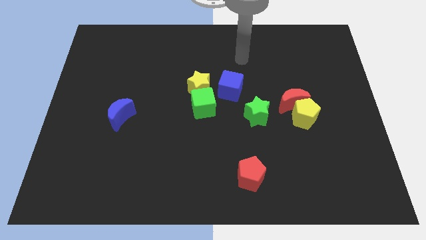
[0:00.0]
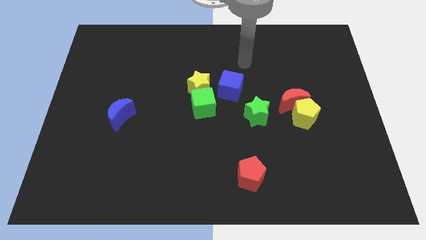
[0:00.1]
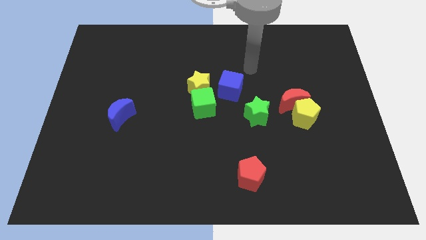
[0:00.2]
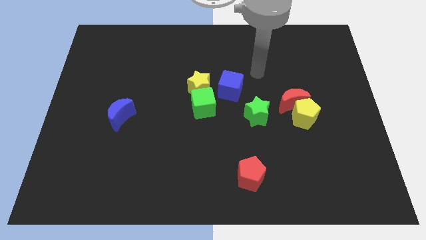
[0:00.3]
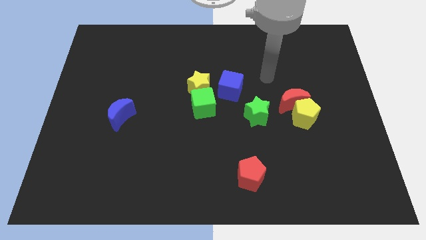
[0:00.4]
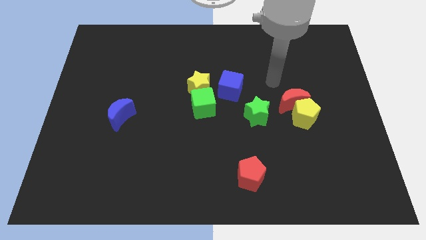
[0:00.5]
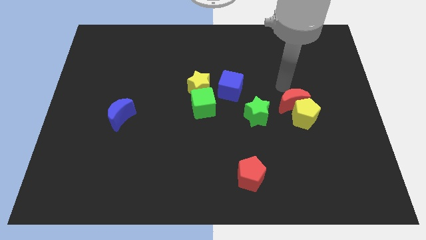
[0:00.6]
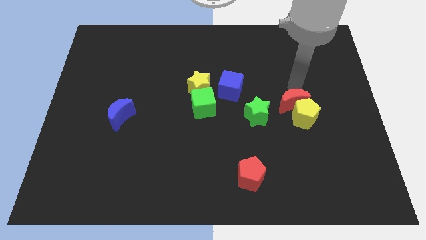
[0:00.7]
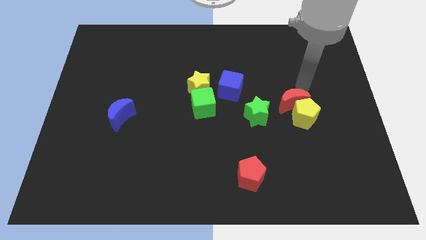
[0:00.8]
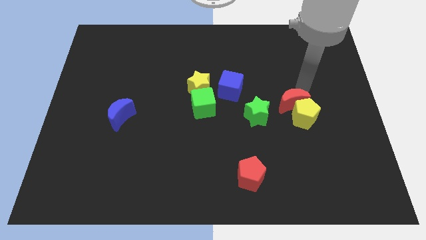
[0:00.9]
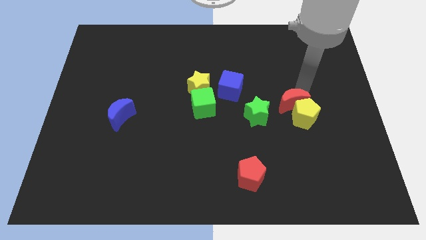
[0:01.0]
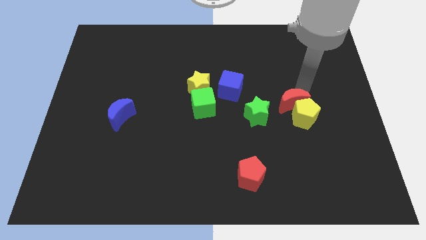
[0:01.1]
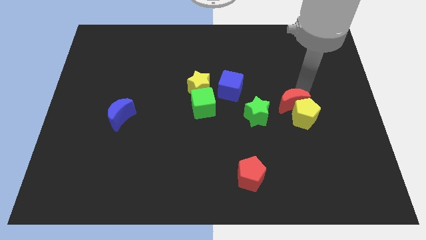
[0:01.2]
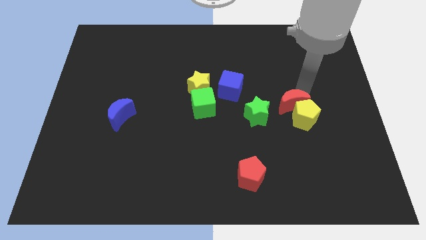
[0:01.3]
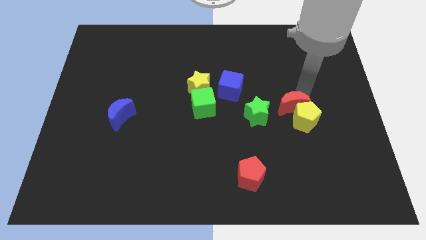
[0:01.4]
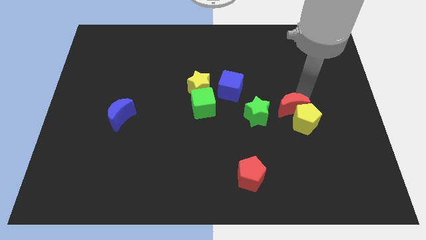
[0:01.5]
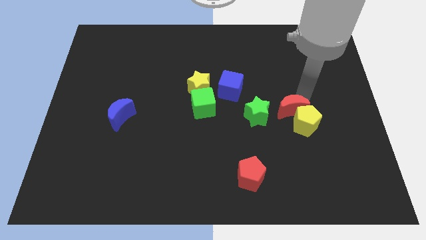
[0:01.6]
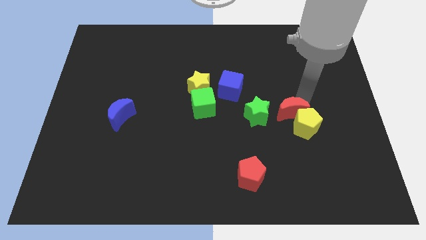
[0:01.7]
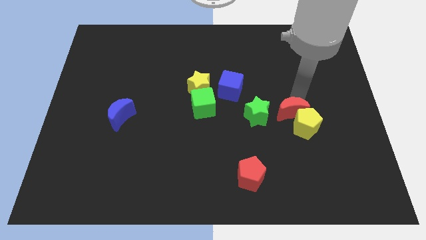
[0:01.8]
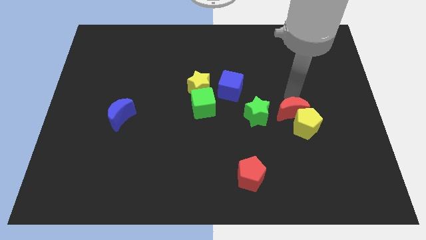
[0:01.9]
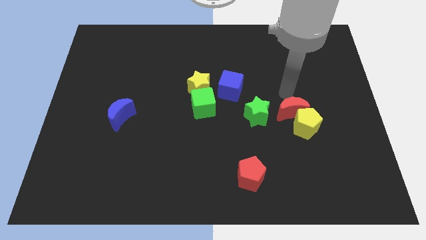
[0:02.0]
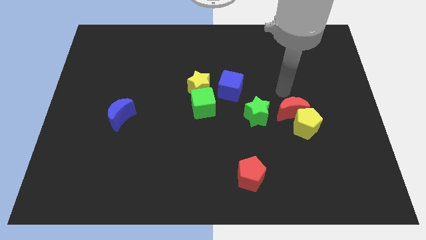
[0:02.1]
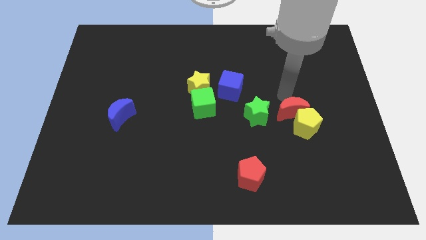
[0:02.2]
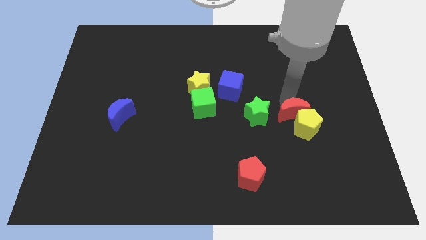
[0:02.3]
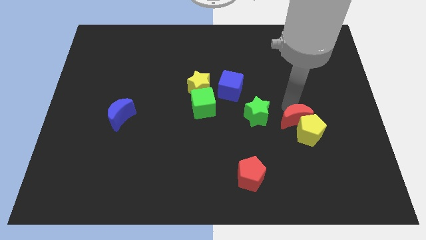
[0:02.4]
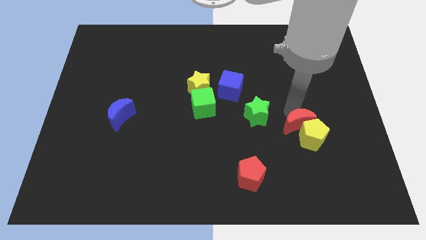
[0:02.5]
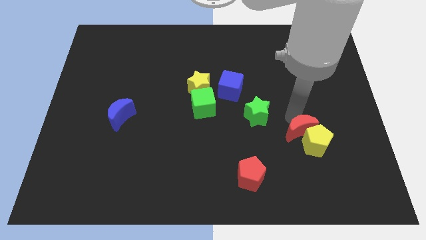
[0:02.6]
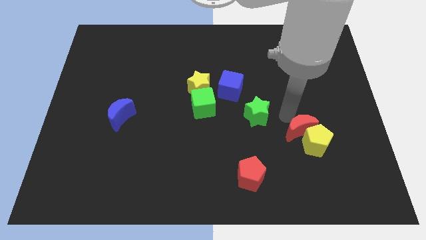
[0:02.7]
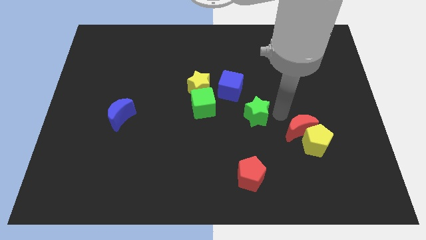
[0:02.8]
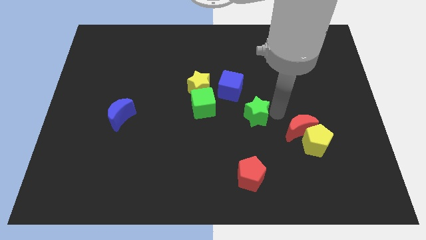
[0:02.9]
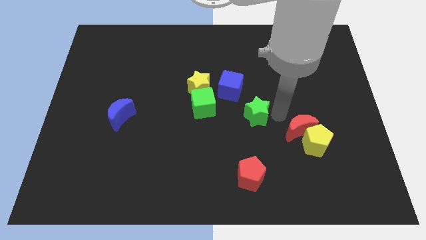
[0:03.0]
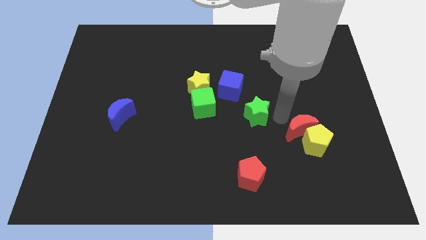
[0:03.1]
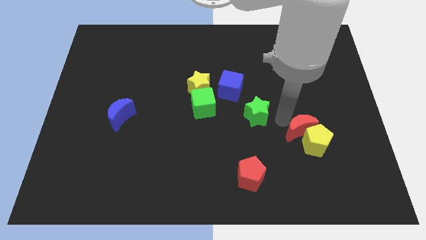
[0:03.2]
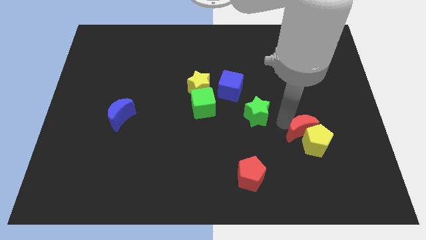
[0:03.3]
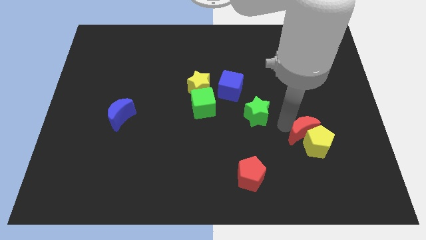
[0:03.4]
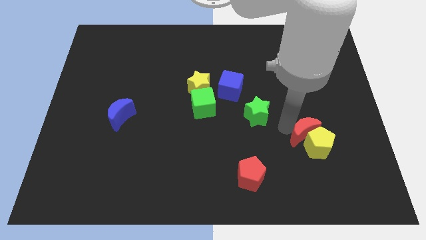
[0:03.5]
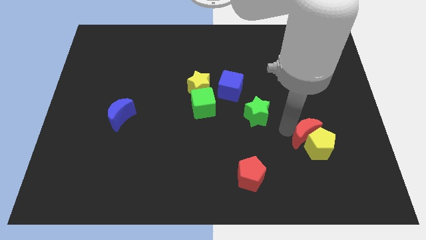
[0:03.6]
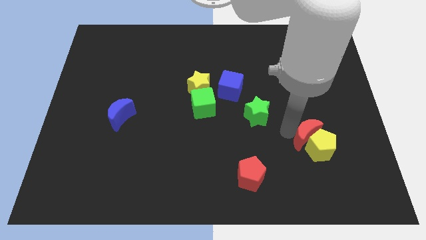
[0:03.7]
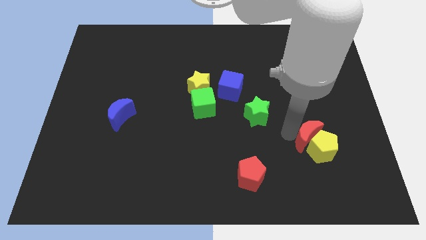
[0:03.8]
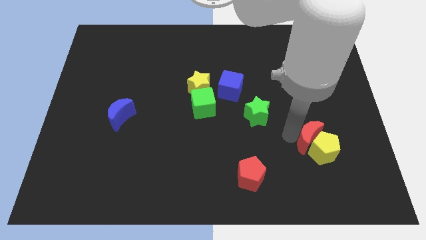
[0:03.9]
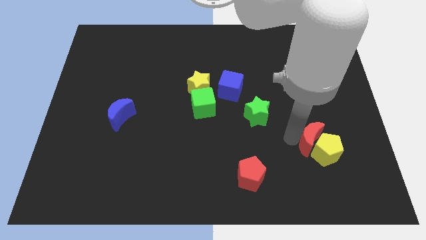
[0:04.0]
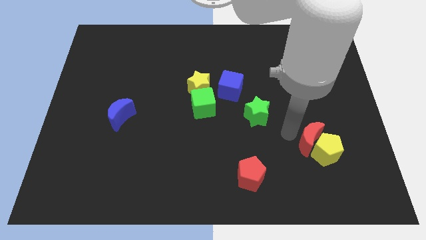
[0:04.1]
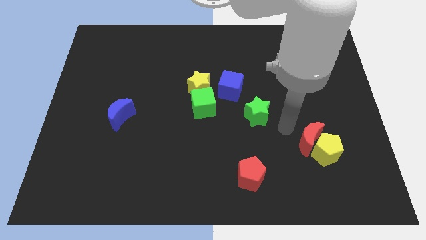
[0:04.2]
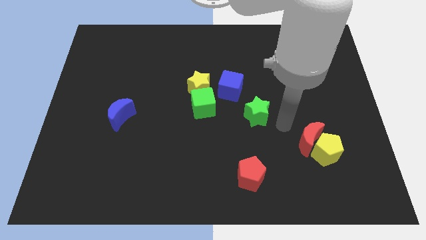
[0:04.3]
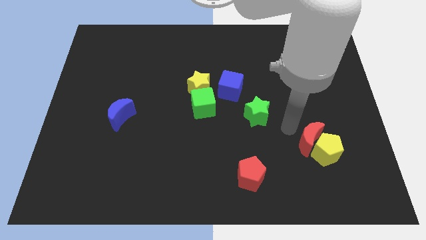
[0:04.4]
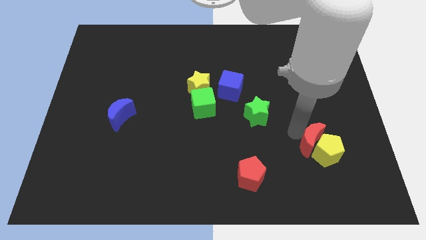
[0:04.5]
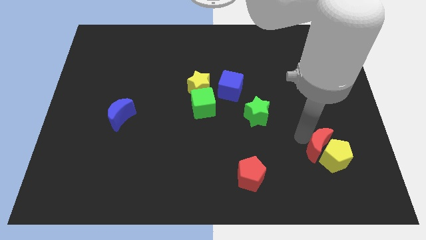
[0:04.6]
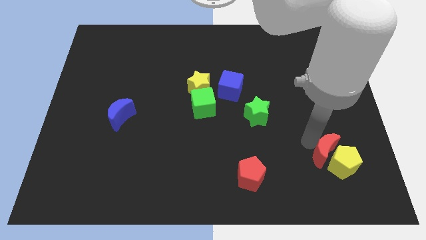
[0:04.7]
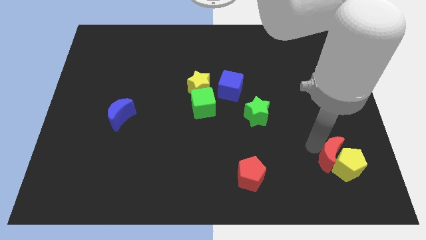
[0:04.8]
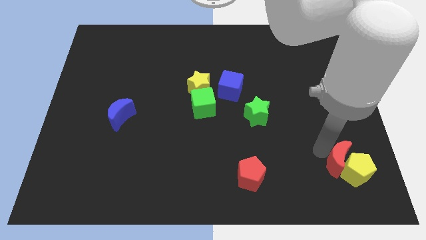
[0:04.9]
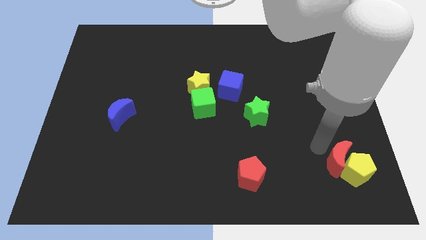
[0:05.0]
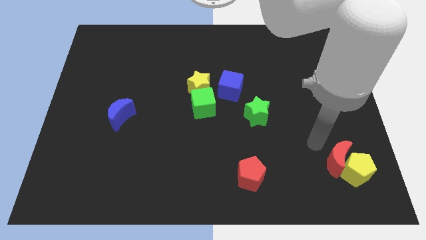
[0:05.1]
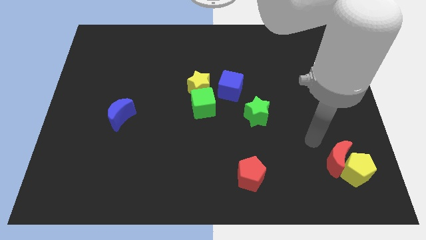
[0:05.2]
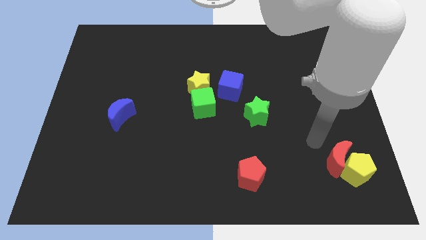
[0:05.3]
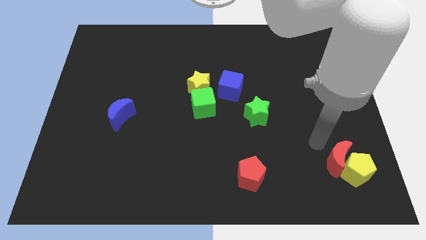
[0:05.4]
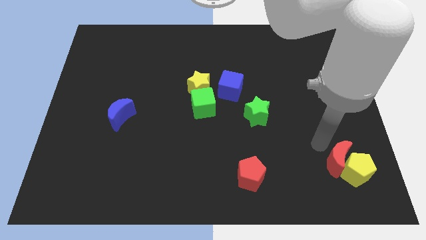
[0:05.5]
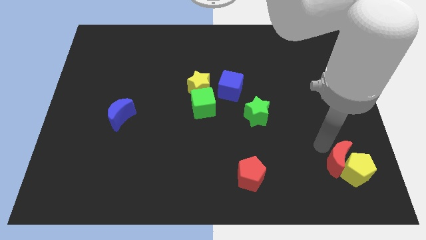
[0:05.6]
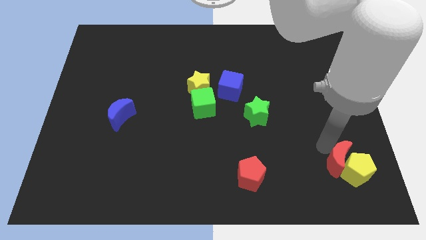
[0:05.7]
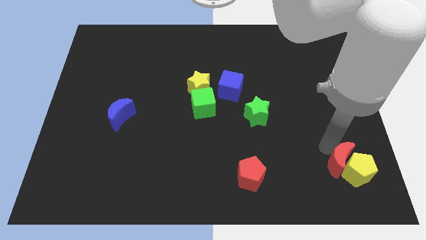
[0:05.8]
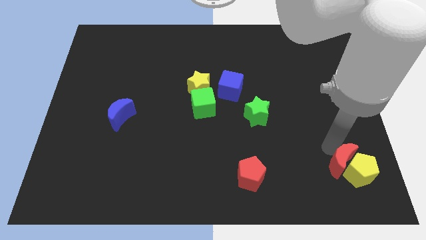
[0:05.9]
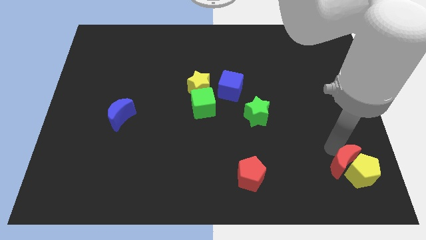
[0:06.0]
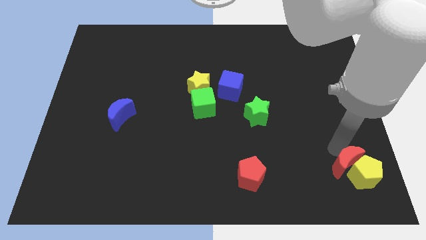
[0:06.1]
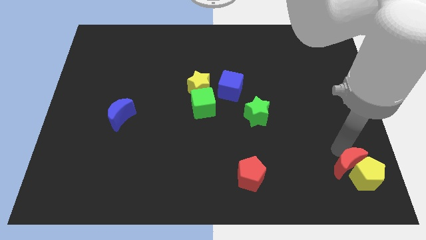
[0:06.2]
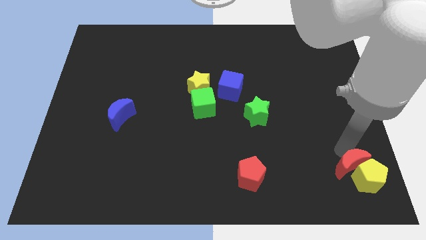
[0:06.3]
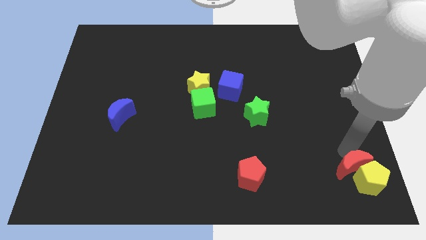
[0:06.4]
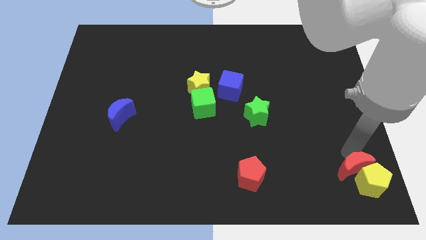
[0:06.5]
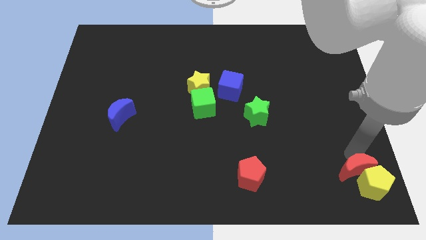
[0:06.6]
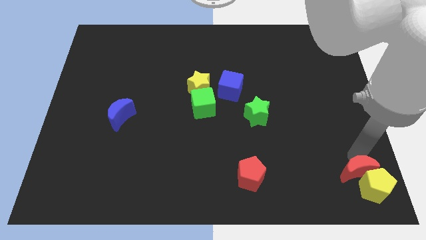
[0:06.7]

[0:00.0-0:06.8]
put the red moon to the bottom right of the board

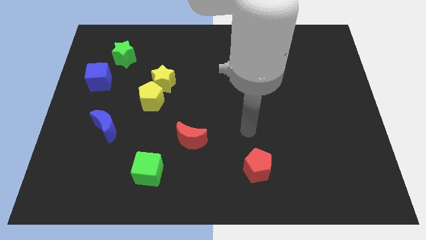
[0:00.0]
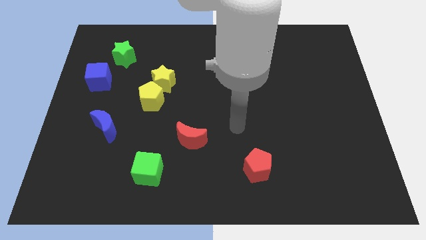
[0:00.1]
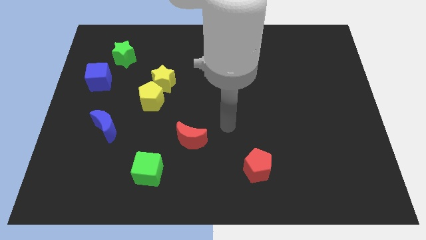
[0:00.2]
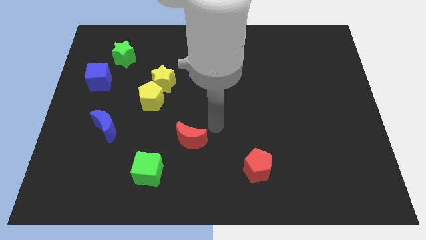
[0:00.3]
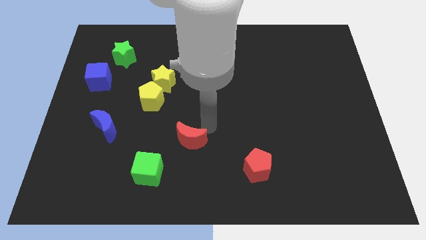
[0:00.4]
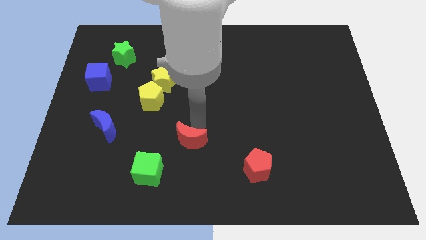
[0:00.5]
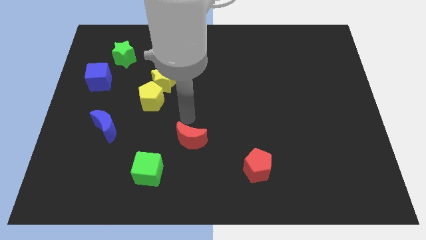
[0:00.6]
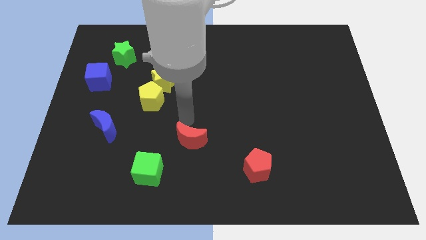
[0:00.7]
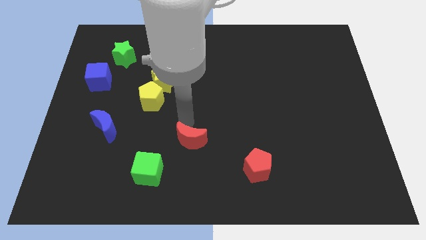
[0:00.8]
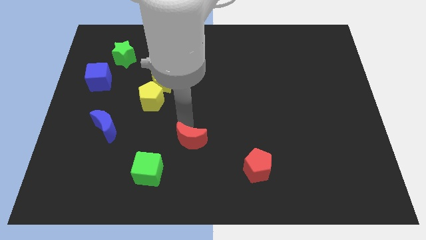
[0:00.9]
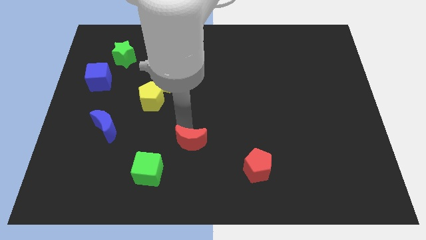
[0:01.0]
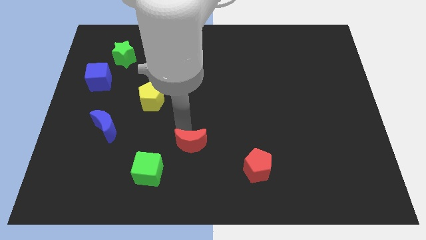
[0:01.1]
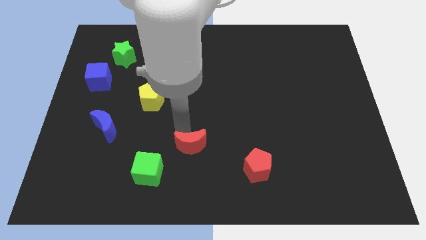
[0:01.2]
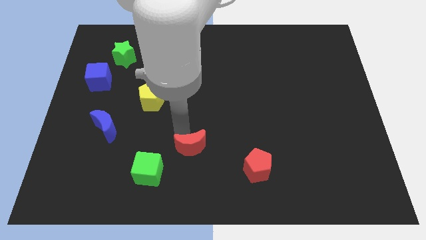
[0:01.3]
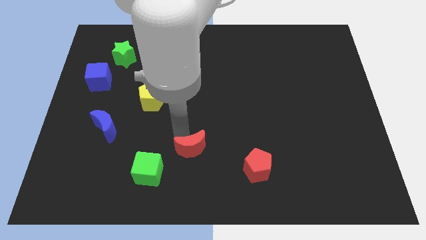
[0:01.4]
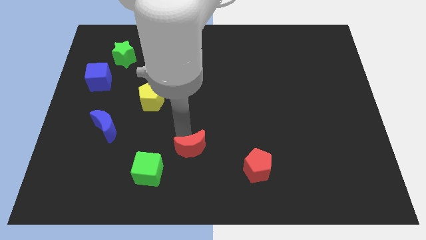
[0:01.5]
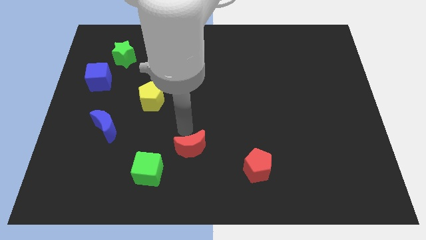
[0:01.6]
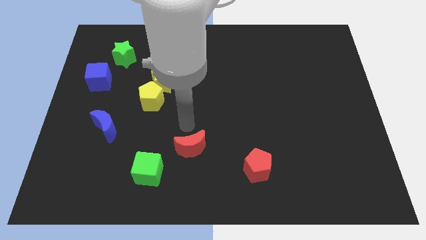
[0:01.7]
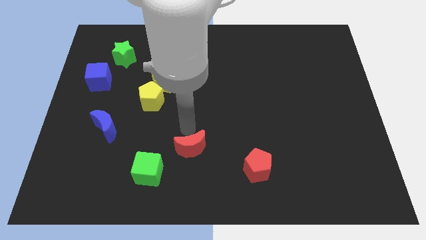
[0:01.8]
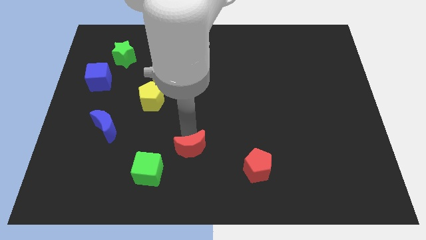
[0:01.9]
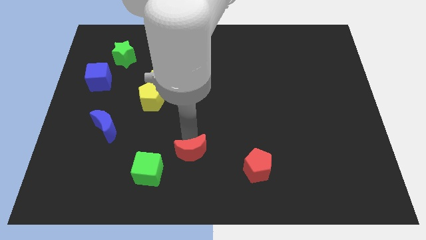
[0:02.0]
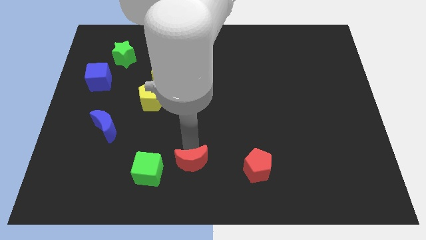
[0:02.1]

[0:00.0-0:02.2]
push the red moon to the bottom side
